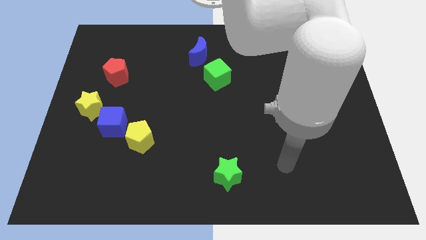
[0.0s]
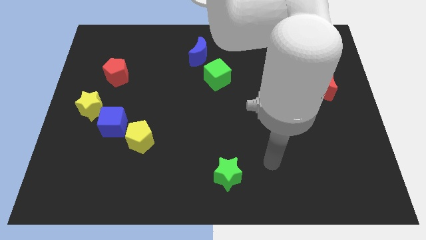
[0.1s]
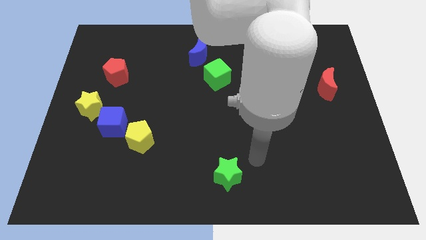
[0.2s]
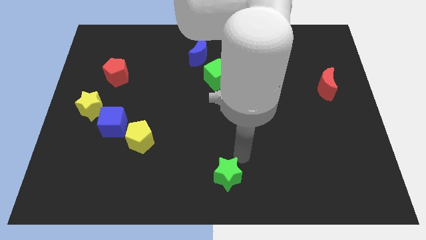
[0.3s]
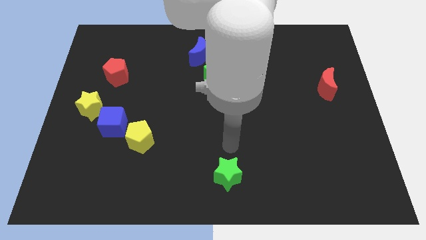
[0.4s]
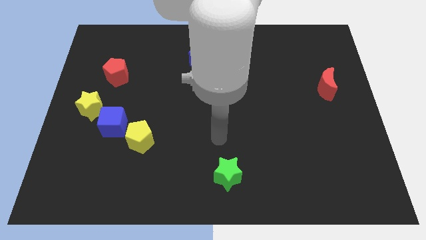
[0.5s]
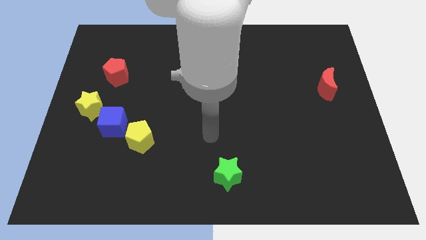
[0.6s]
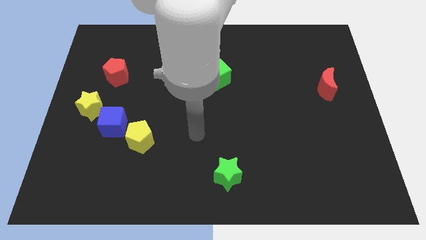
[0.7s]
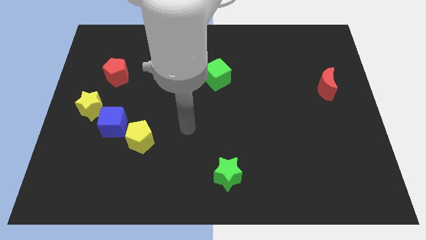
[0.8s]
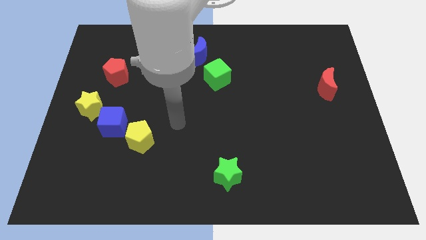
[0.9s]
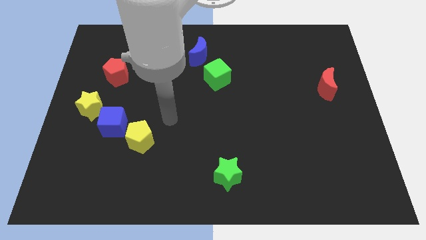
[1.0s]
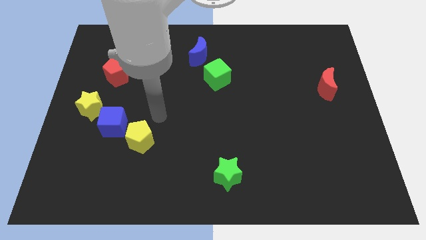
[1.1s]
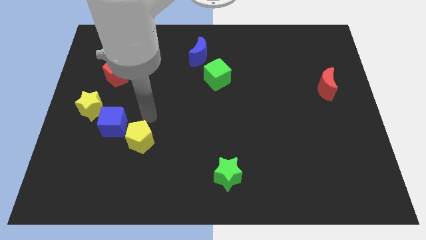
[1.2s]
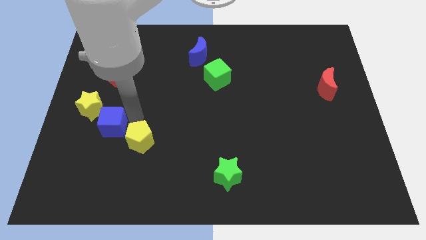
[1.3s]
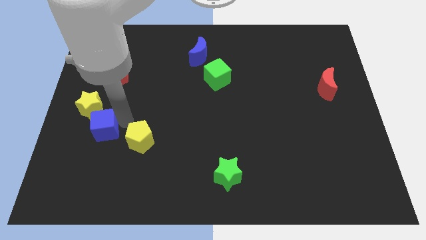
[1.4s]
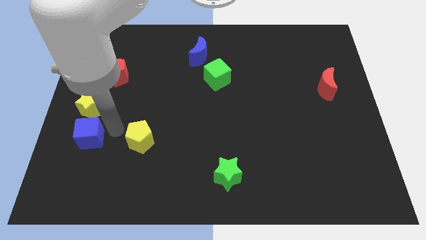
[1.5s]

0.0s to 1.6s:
move the yellow pentagon away from the blue cube

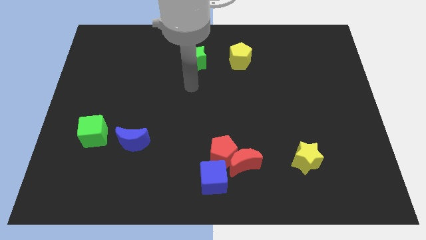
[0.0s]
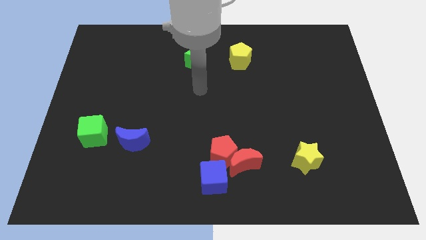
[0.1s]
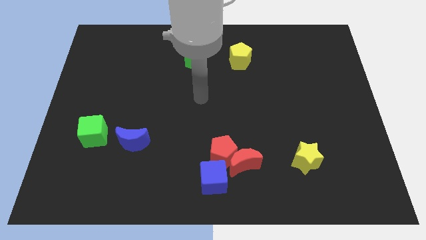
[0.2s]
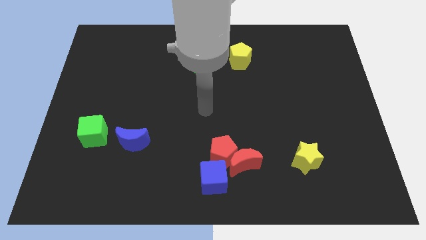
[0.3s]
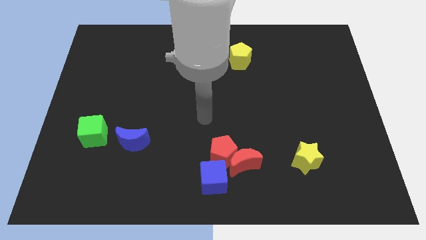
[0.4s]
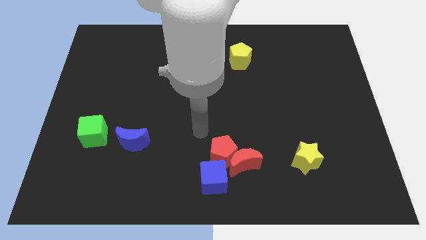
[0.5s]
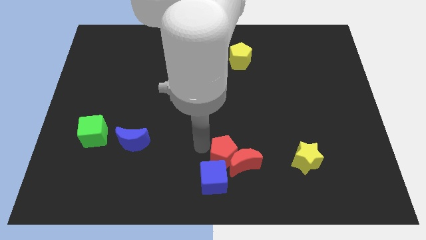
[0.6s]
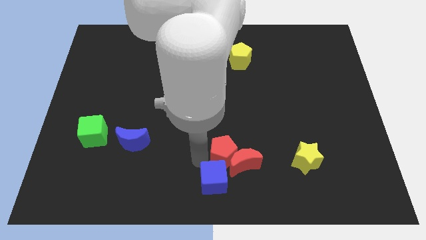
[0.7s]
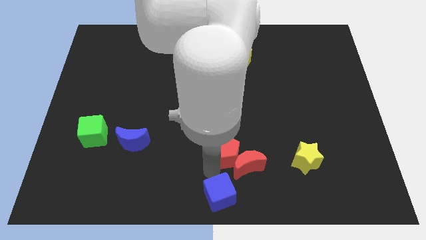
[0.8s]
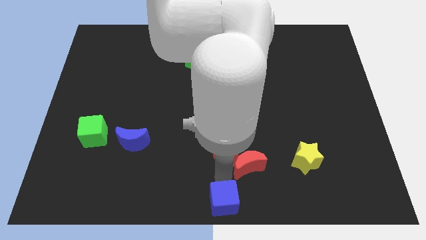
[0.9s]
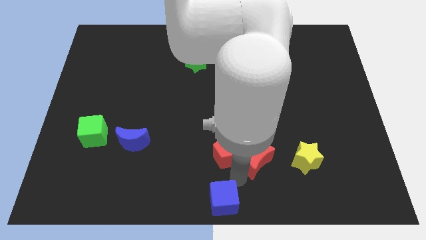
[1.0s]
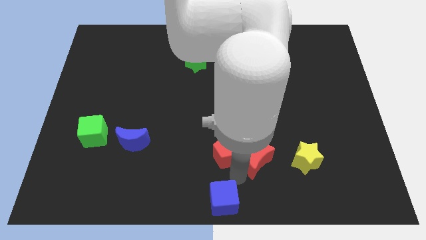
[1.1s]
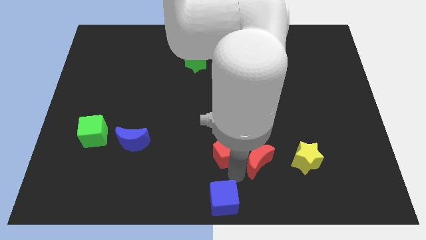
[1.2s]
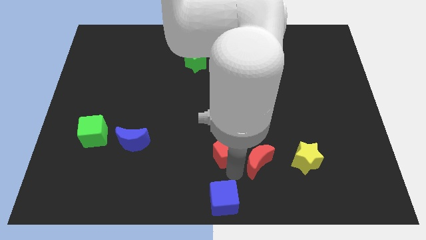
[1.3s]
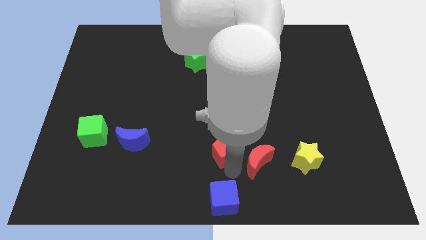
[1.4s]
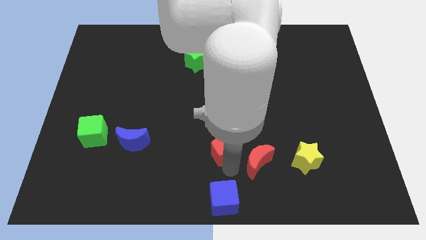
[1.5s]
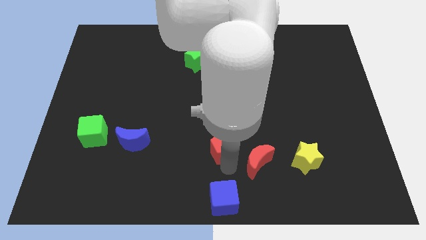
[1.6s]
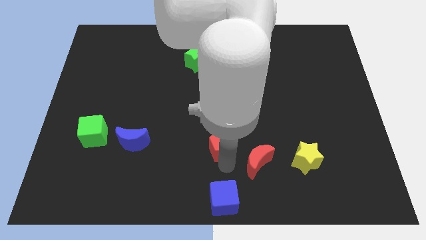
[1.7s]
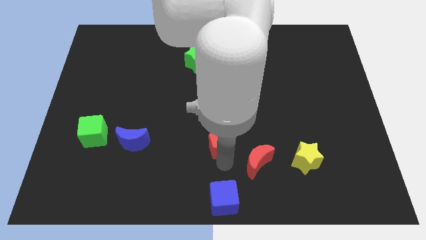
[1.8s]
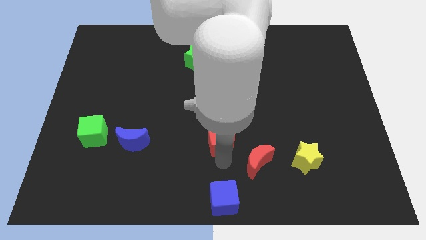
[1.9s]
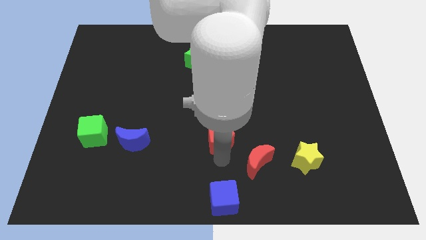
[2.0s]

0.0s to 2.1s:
move the red pentagon away from the red moon and blue cube

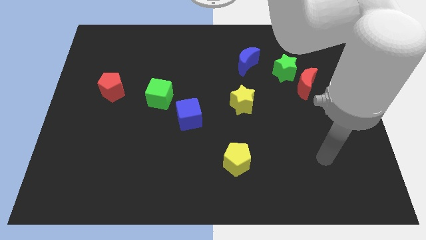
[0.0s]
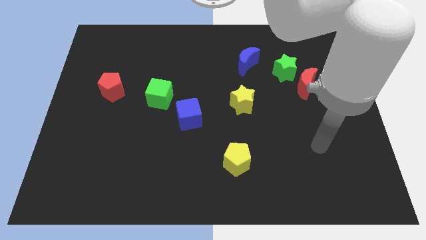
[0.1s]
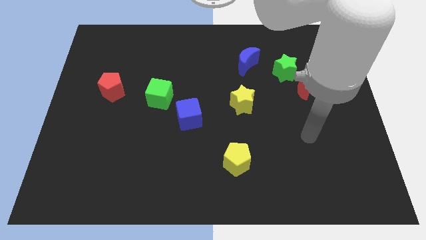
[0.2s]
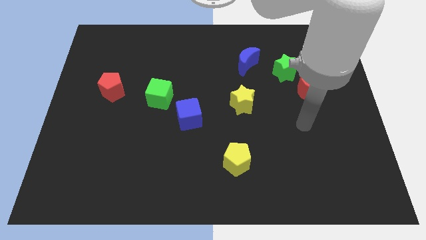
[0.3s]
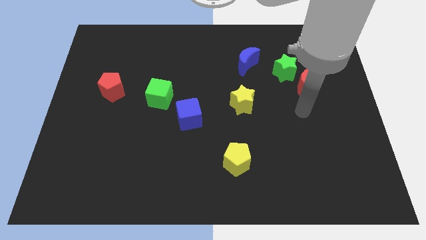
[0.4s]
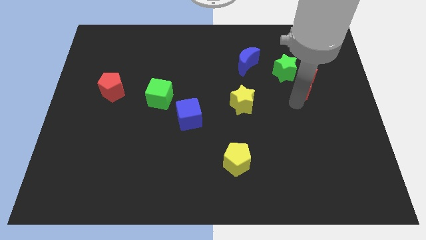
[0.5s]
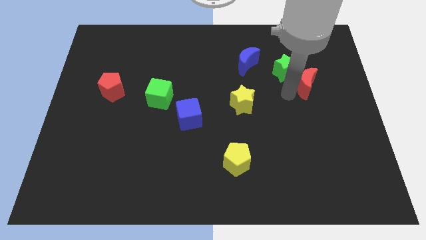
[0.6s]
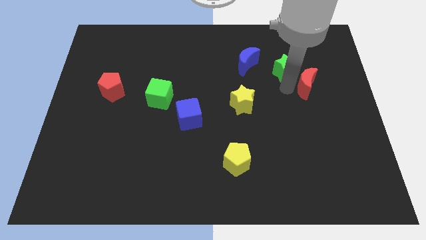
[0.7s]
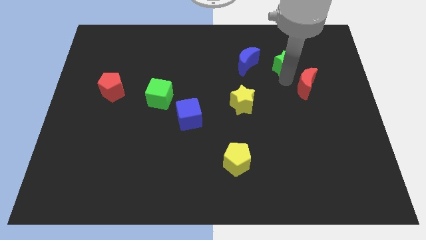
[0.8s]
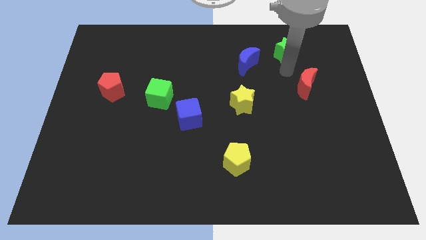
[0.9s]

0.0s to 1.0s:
separate the red moon from the green star

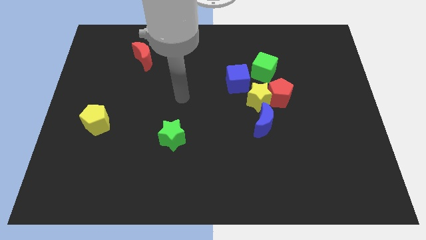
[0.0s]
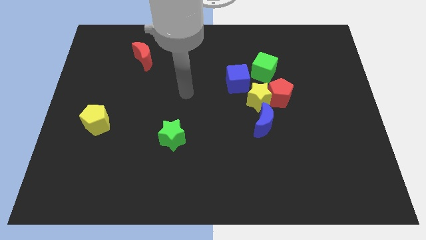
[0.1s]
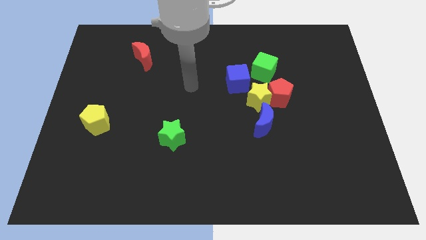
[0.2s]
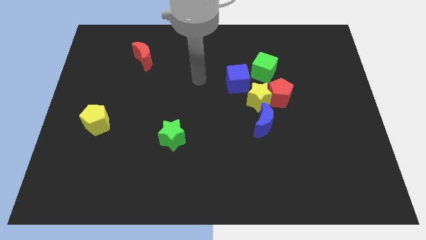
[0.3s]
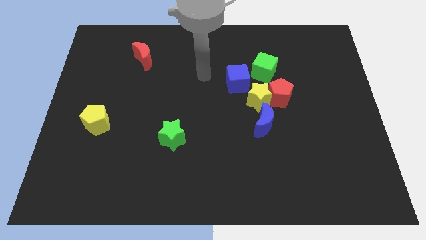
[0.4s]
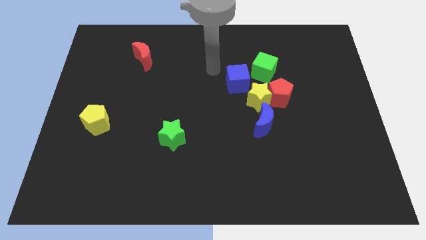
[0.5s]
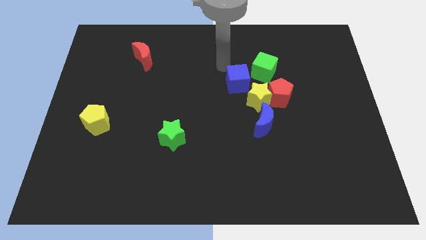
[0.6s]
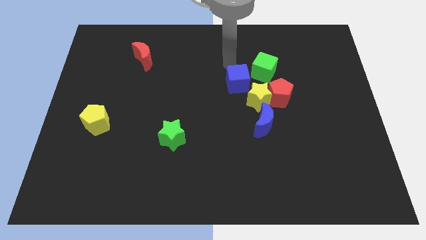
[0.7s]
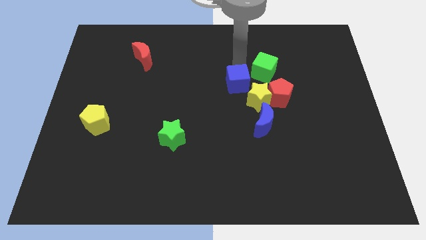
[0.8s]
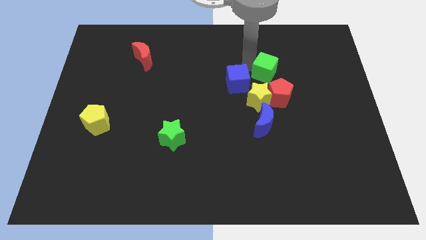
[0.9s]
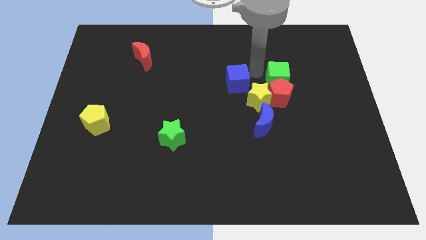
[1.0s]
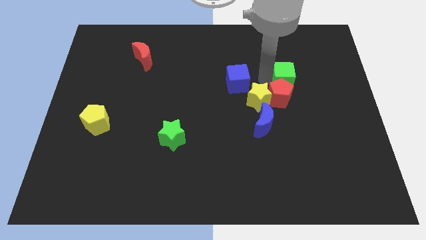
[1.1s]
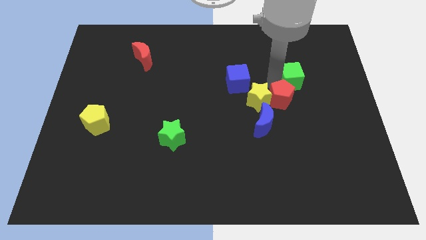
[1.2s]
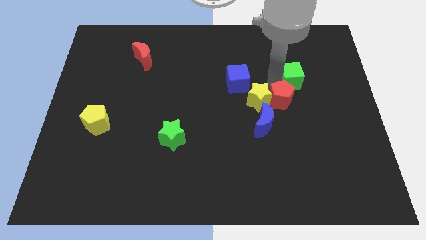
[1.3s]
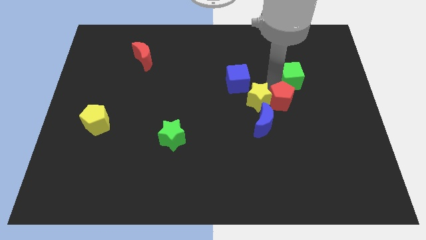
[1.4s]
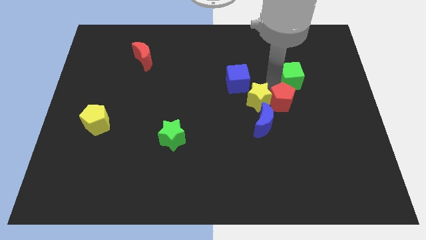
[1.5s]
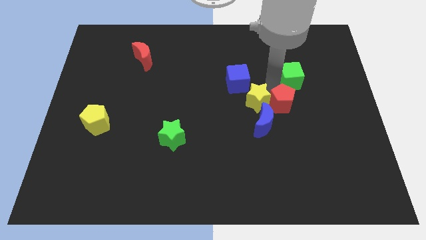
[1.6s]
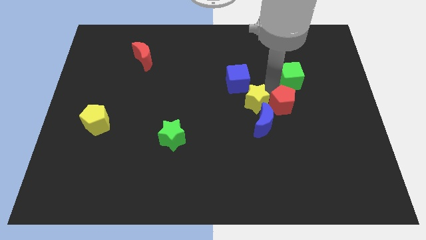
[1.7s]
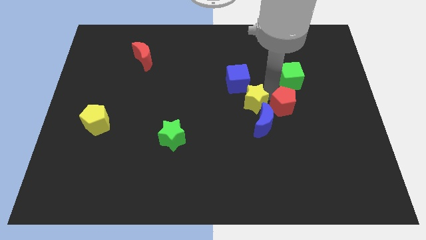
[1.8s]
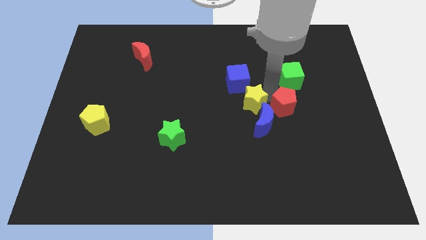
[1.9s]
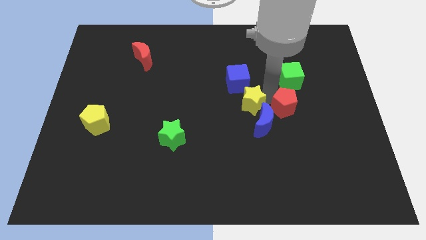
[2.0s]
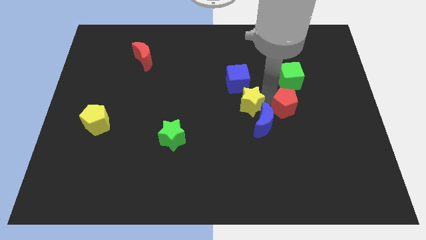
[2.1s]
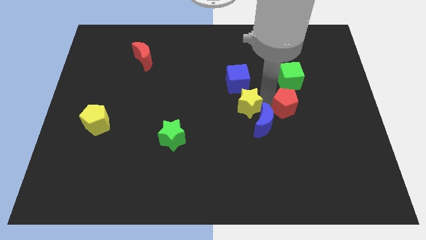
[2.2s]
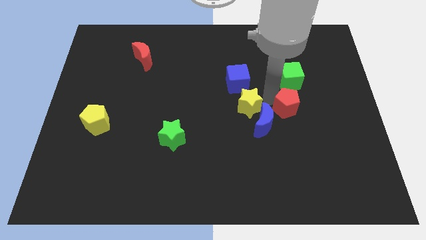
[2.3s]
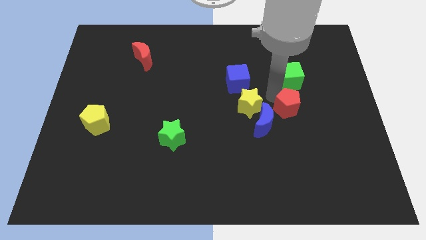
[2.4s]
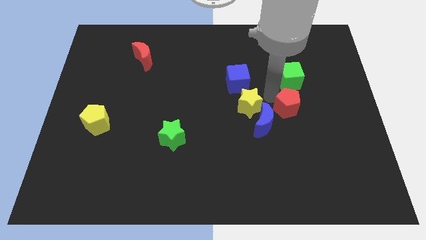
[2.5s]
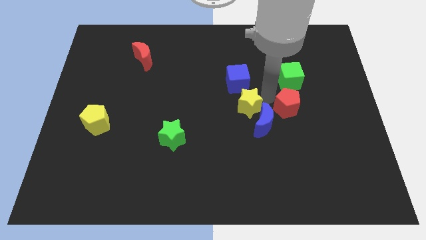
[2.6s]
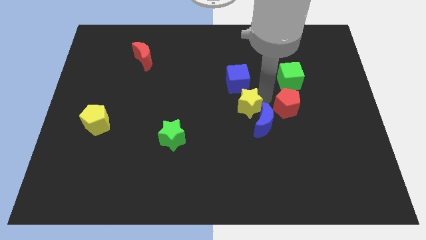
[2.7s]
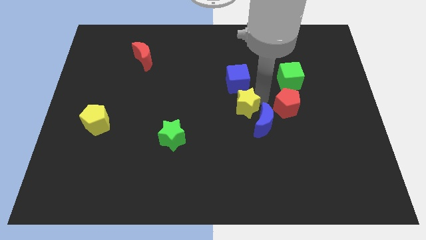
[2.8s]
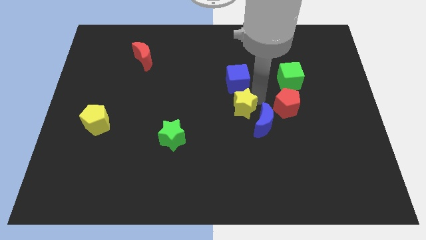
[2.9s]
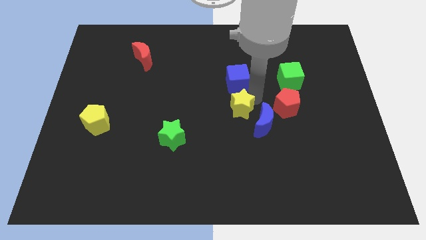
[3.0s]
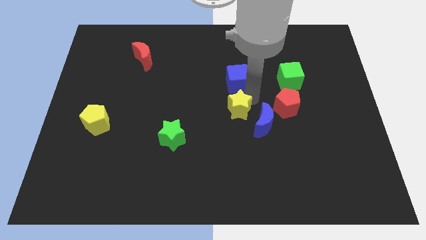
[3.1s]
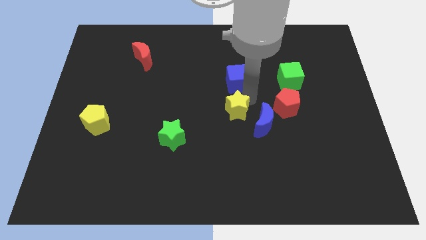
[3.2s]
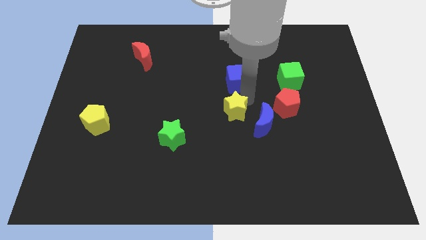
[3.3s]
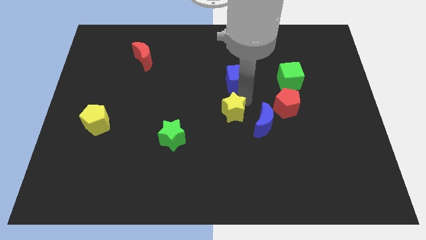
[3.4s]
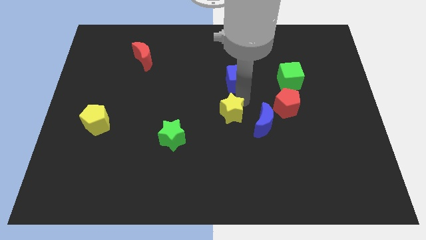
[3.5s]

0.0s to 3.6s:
move the yellow star away from the group of blocks

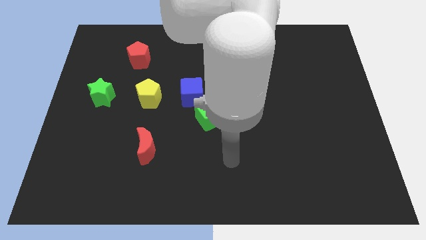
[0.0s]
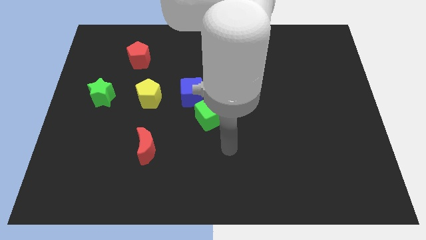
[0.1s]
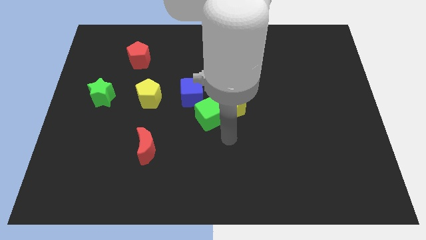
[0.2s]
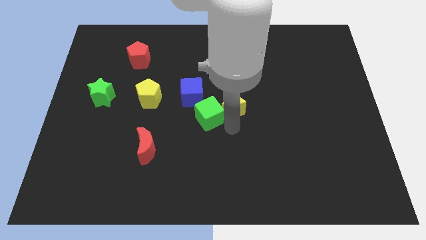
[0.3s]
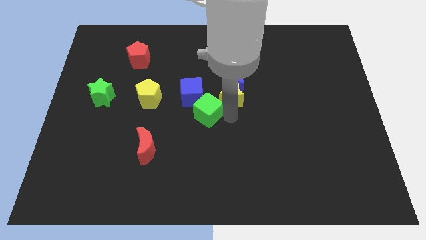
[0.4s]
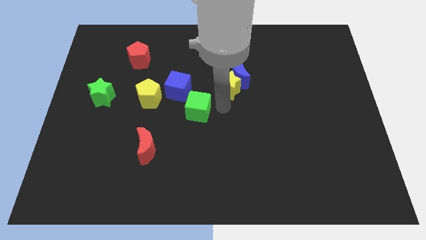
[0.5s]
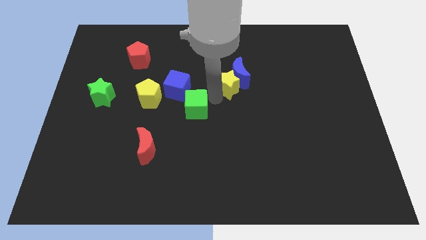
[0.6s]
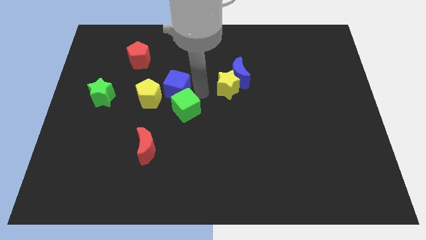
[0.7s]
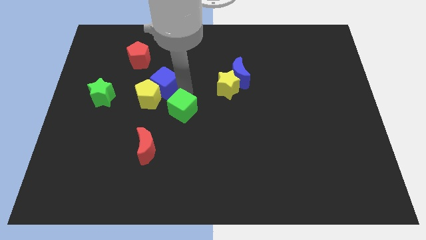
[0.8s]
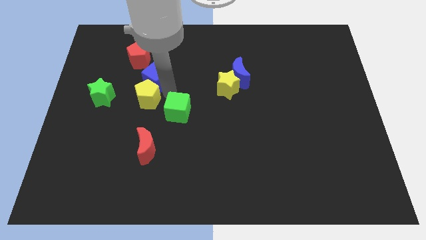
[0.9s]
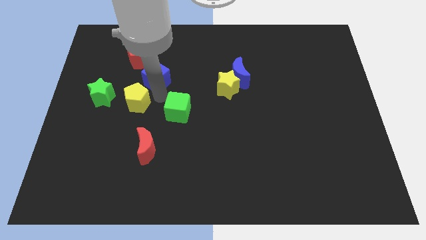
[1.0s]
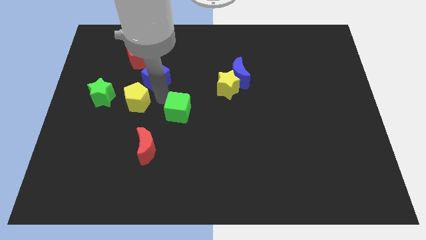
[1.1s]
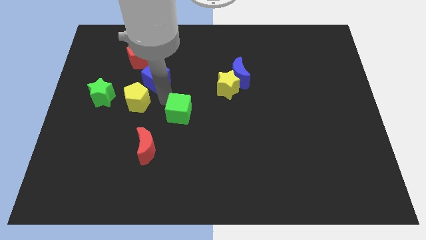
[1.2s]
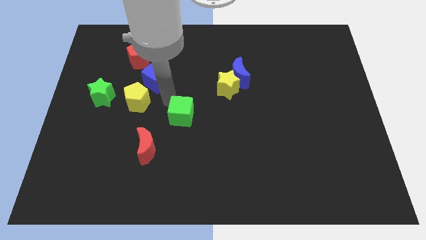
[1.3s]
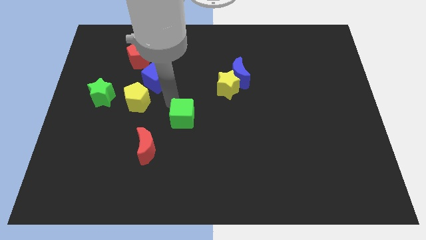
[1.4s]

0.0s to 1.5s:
separate the green cube from the yellow star and blue cube
